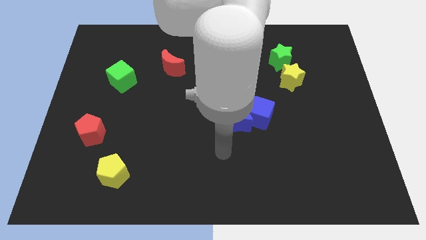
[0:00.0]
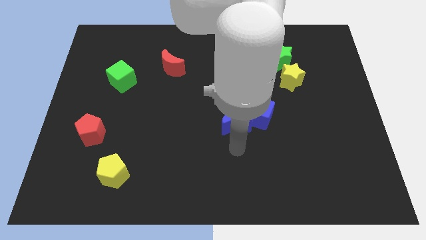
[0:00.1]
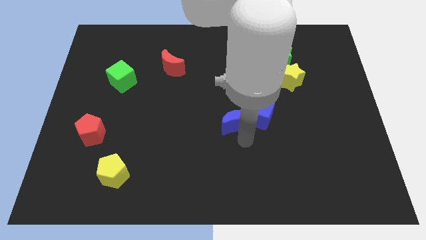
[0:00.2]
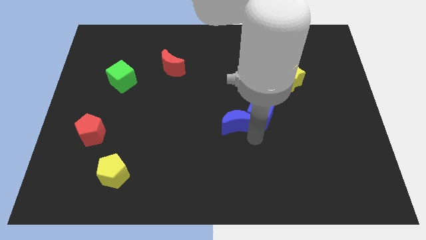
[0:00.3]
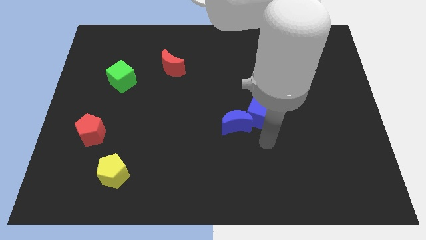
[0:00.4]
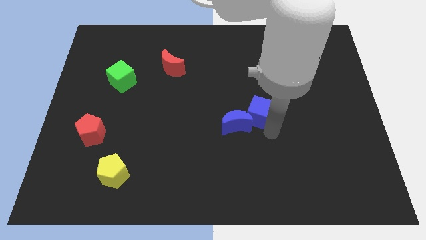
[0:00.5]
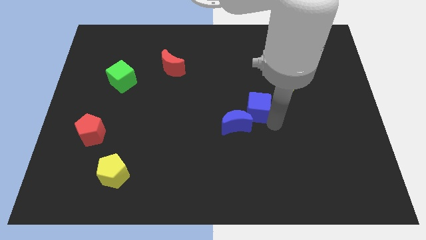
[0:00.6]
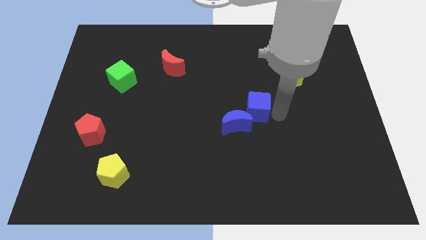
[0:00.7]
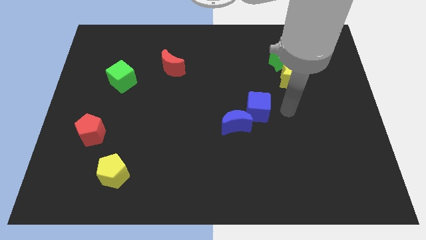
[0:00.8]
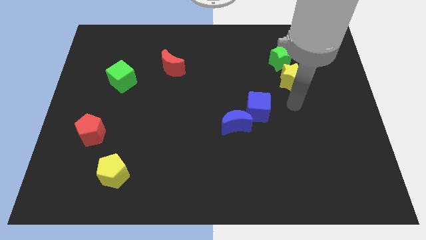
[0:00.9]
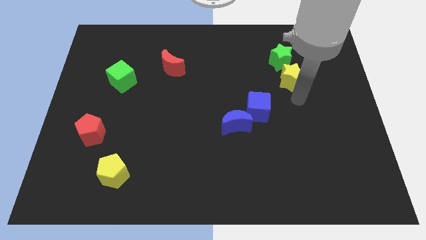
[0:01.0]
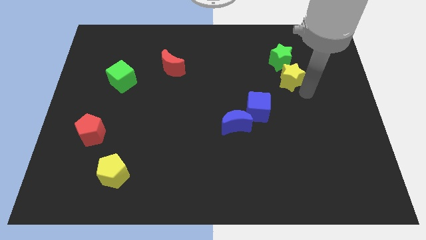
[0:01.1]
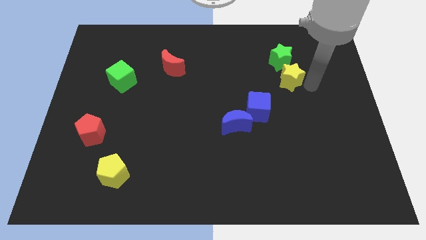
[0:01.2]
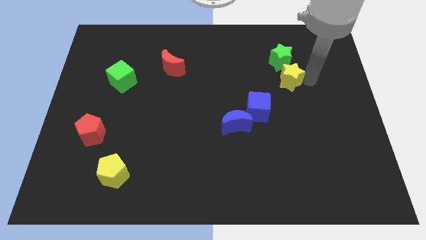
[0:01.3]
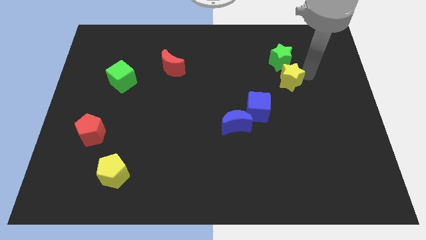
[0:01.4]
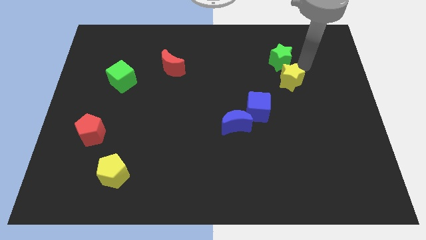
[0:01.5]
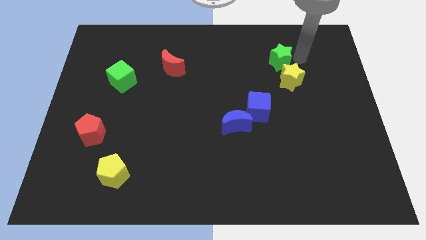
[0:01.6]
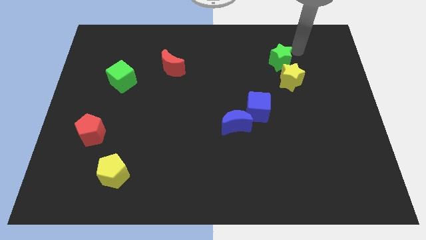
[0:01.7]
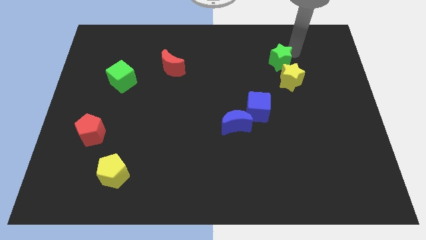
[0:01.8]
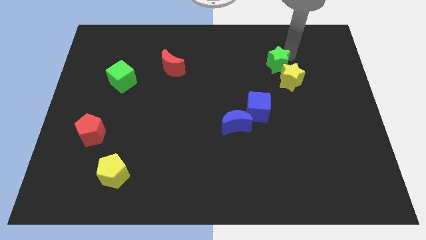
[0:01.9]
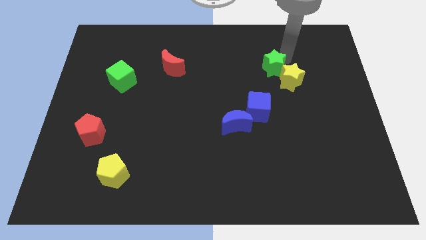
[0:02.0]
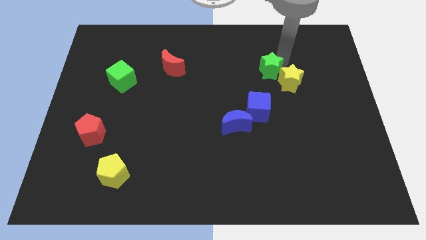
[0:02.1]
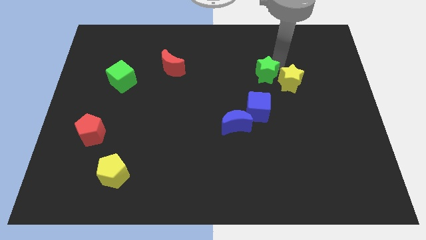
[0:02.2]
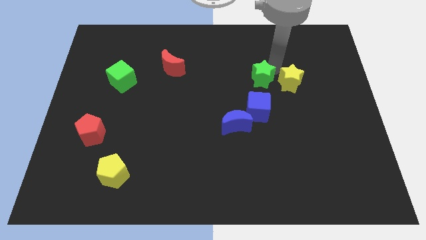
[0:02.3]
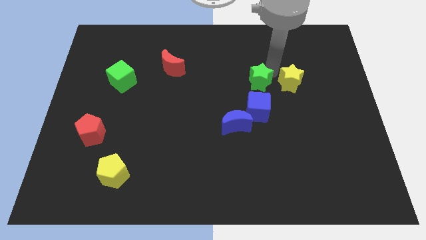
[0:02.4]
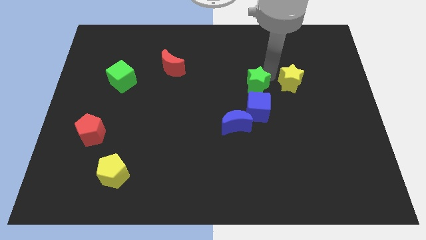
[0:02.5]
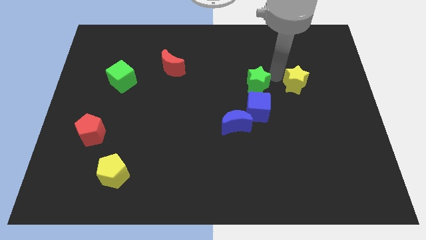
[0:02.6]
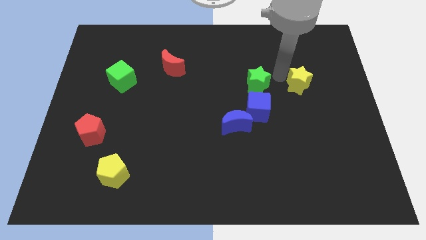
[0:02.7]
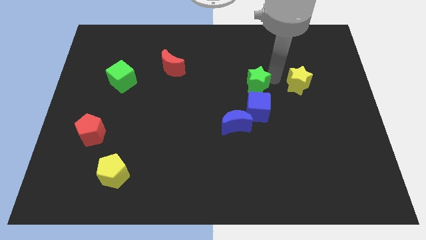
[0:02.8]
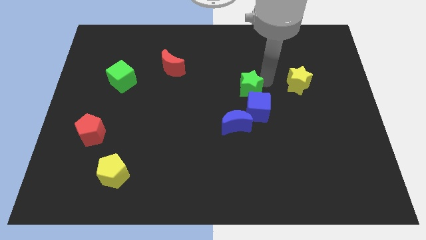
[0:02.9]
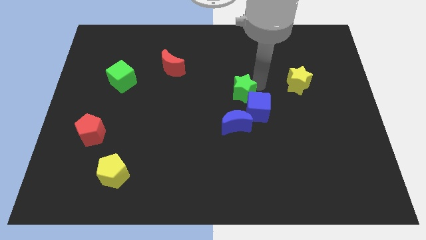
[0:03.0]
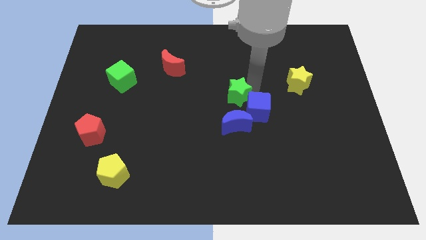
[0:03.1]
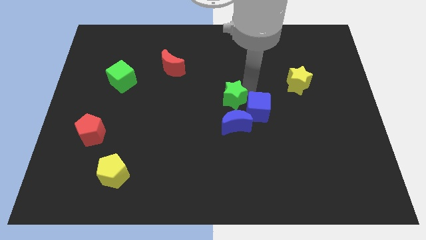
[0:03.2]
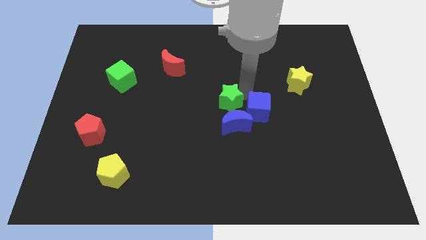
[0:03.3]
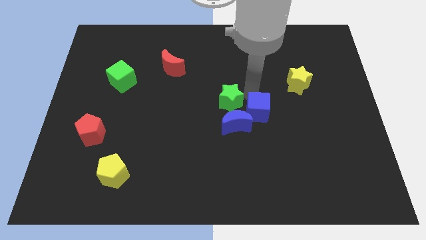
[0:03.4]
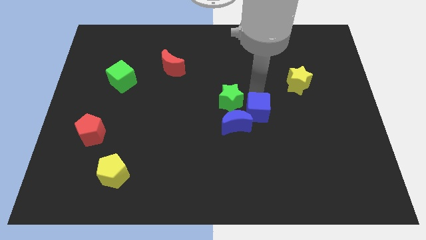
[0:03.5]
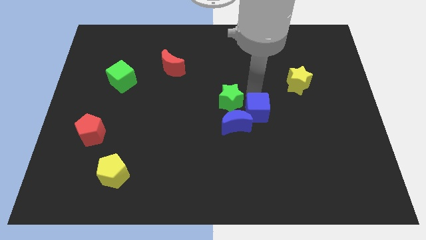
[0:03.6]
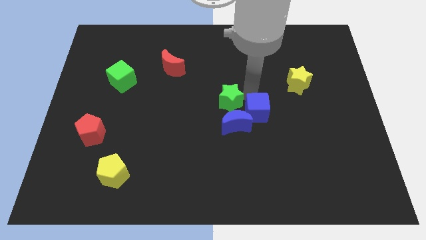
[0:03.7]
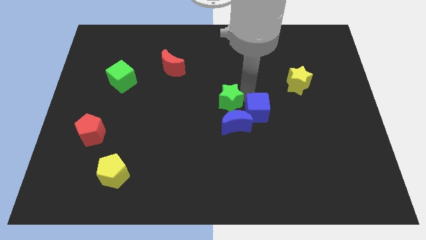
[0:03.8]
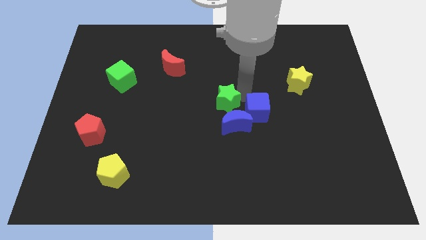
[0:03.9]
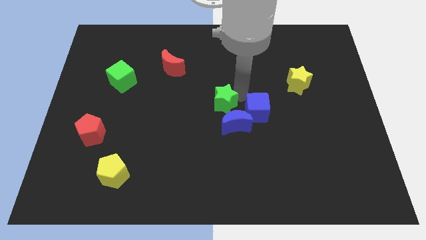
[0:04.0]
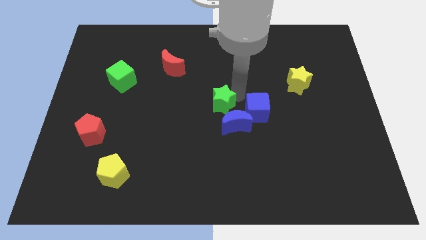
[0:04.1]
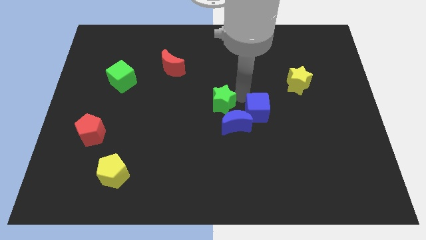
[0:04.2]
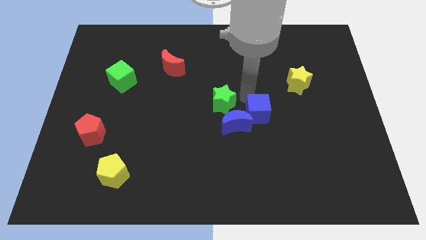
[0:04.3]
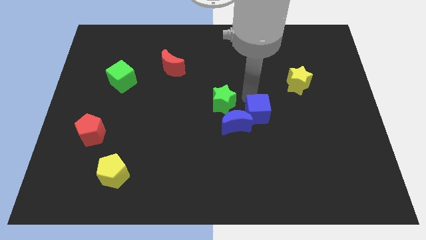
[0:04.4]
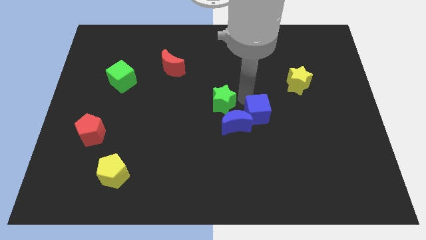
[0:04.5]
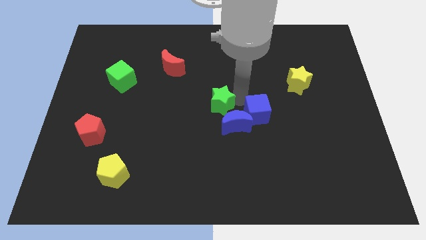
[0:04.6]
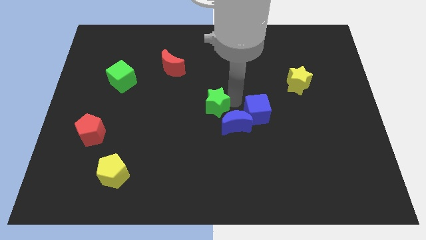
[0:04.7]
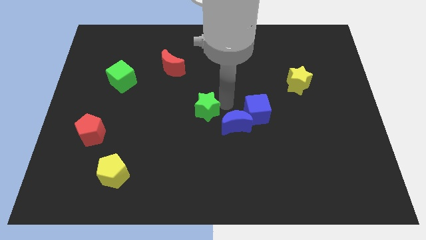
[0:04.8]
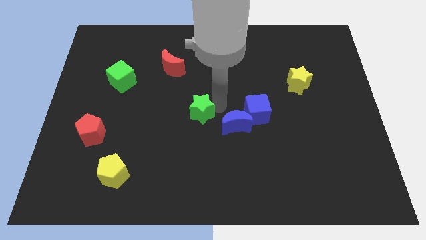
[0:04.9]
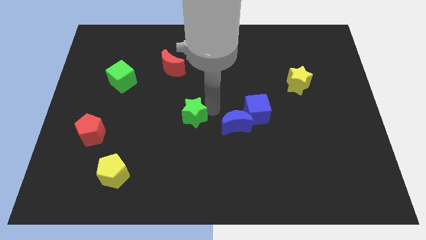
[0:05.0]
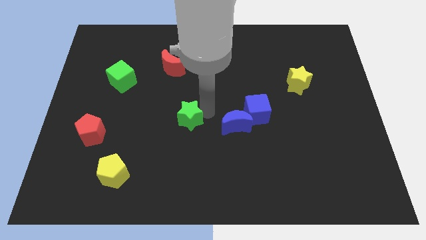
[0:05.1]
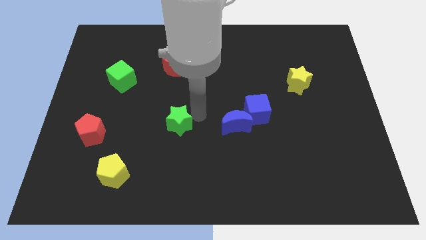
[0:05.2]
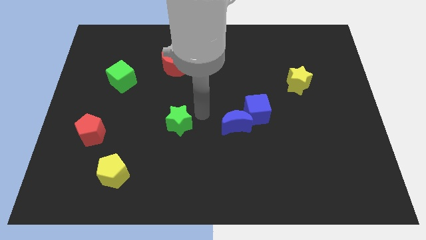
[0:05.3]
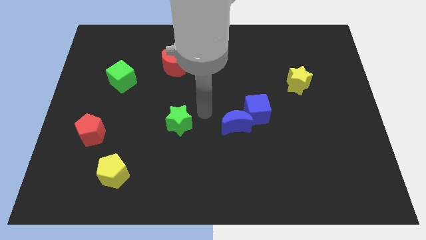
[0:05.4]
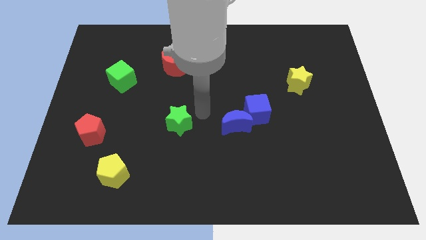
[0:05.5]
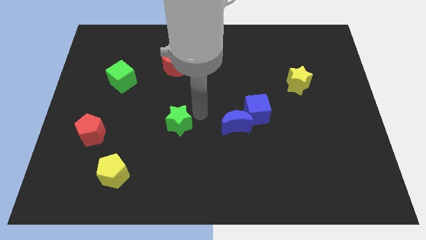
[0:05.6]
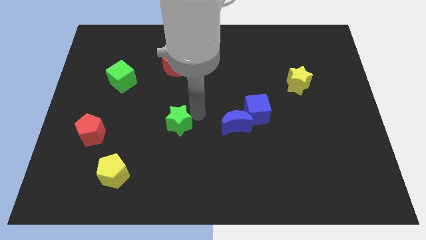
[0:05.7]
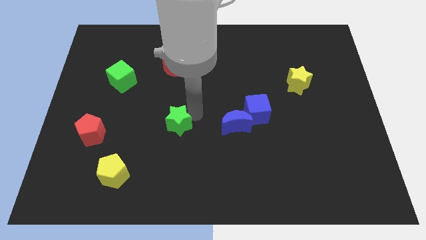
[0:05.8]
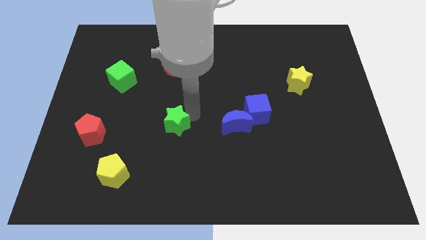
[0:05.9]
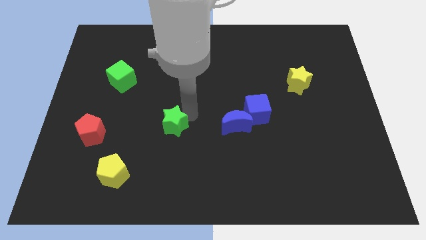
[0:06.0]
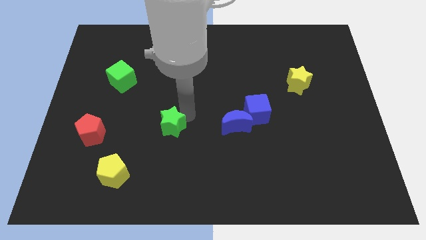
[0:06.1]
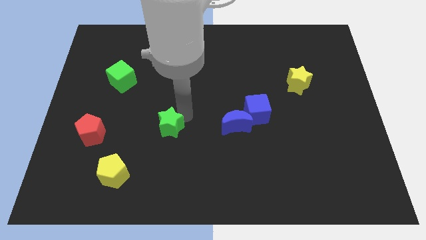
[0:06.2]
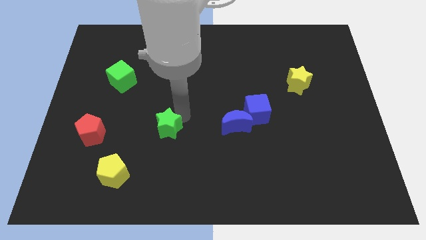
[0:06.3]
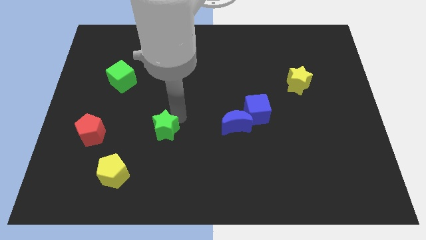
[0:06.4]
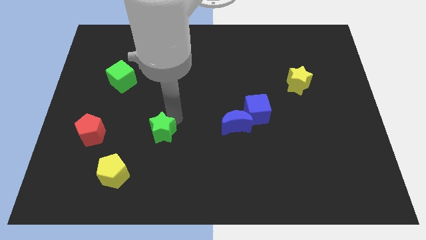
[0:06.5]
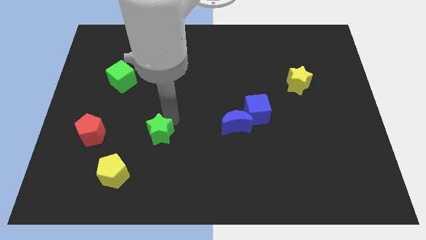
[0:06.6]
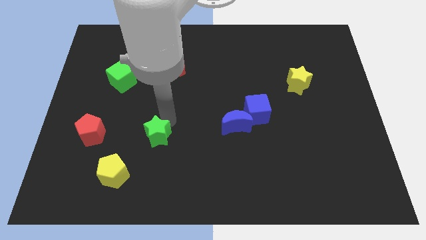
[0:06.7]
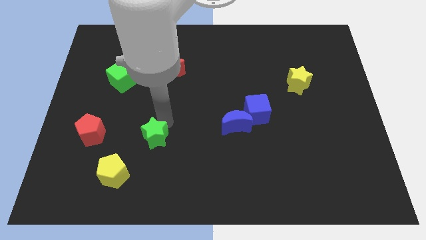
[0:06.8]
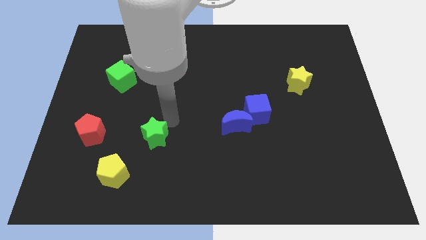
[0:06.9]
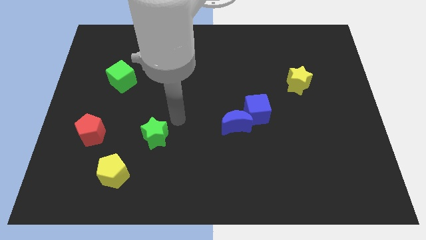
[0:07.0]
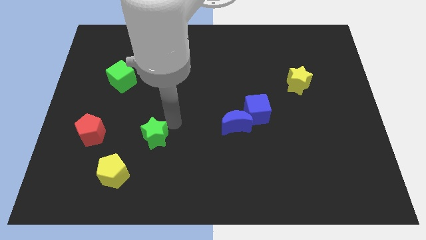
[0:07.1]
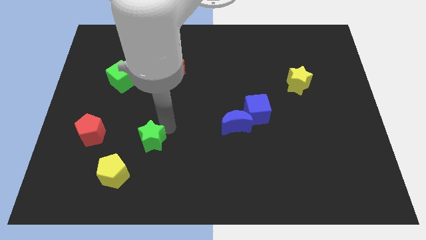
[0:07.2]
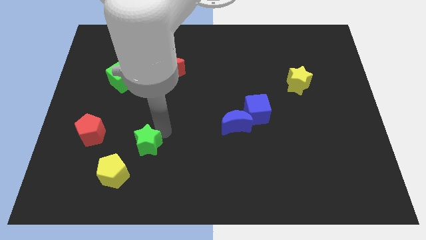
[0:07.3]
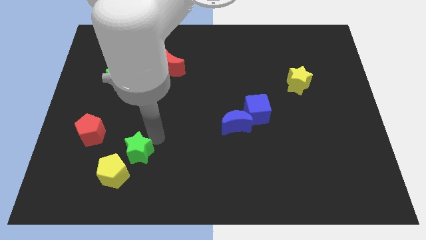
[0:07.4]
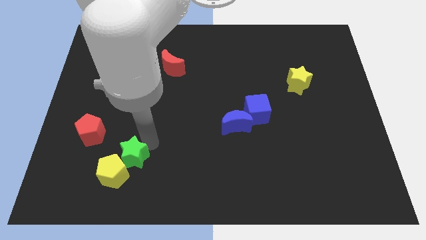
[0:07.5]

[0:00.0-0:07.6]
move the green star next to the yellow pentagon
